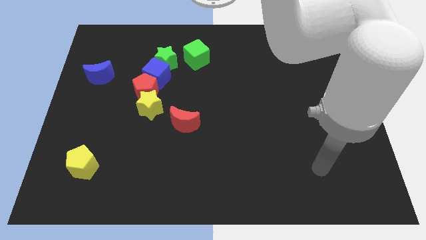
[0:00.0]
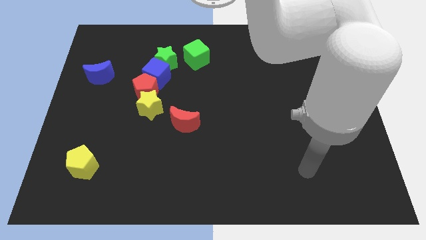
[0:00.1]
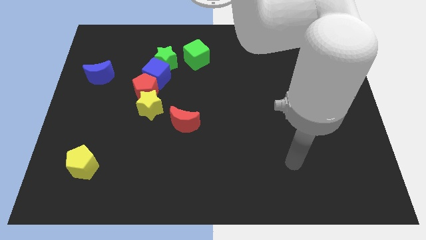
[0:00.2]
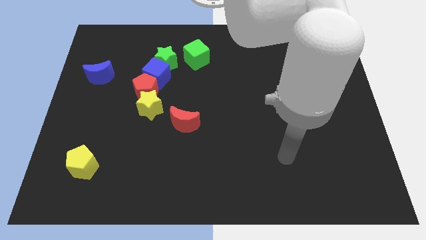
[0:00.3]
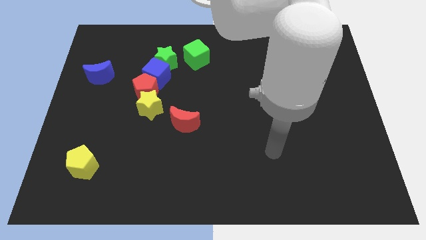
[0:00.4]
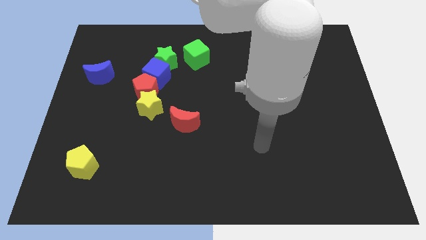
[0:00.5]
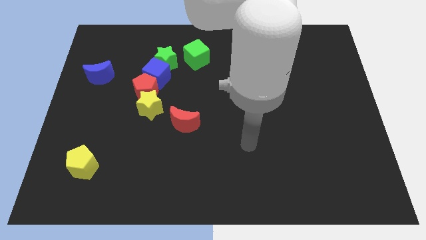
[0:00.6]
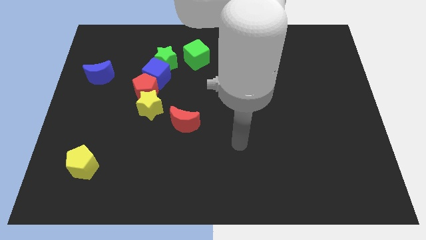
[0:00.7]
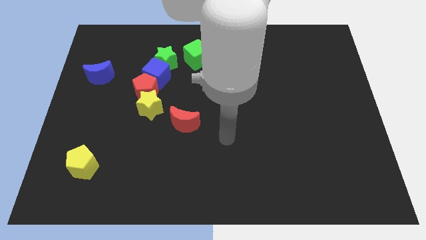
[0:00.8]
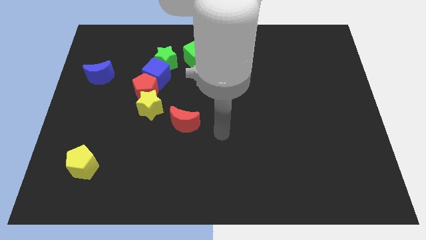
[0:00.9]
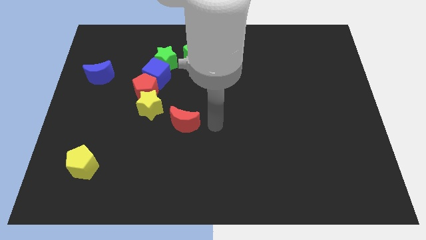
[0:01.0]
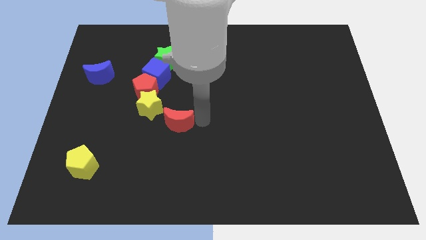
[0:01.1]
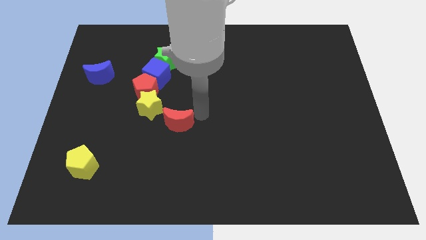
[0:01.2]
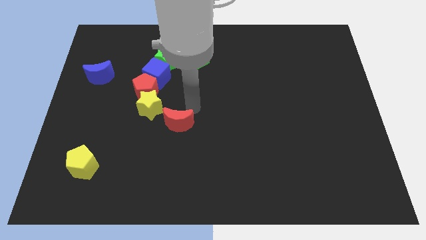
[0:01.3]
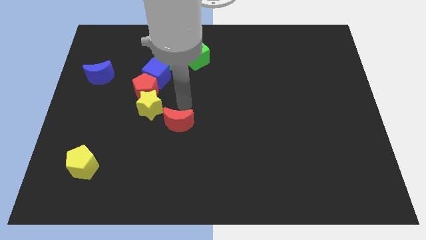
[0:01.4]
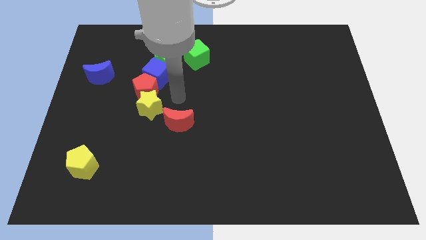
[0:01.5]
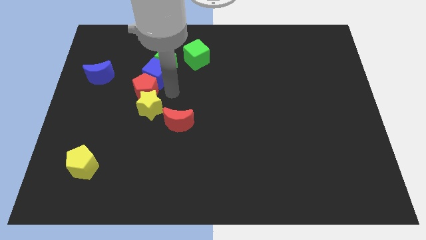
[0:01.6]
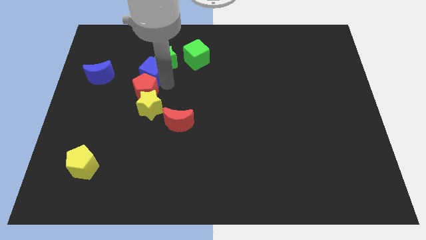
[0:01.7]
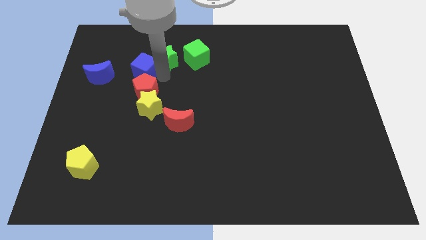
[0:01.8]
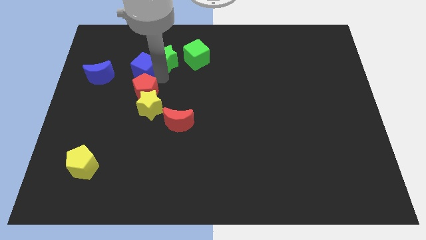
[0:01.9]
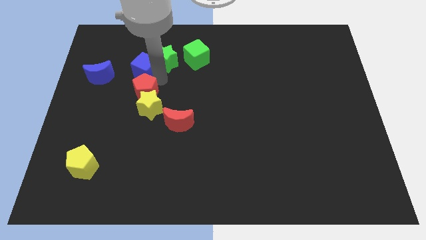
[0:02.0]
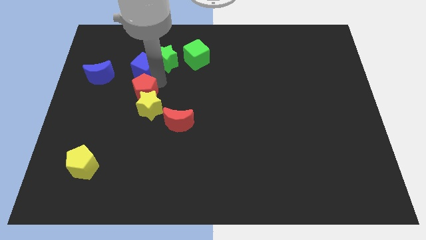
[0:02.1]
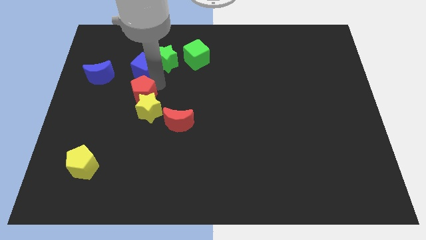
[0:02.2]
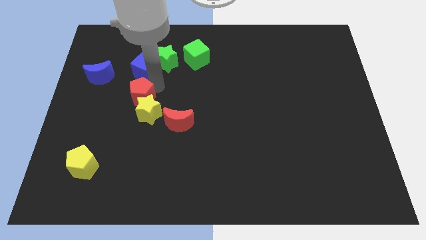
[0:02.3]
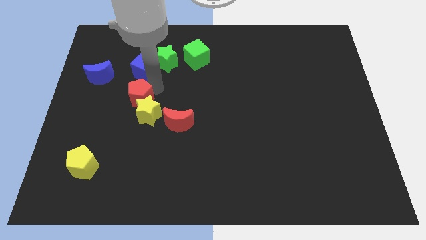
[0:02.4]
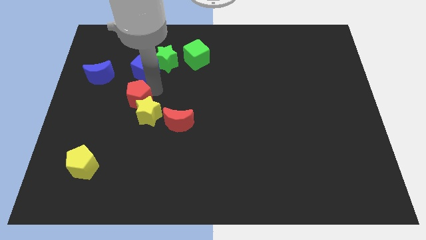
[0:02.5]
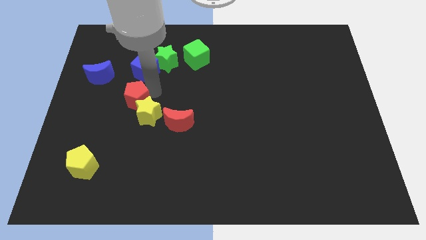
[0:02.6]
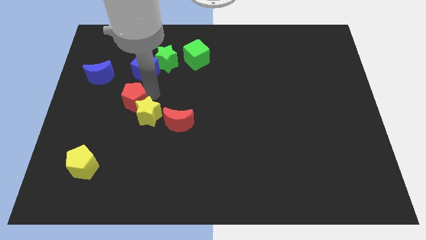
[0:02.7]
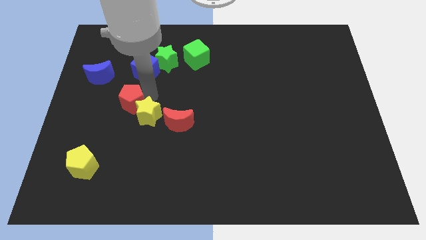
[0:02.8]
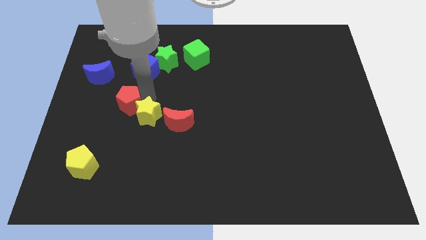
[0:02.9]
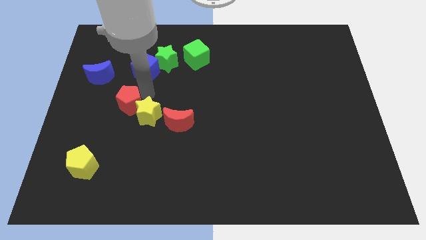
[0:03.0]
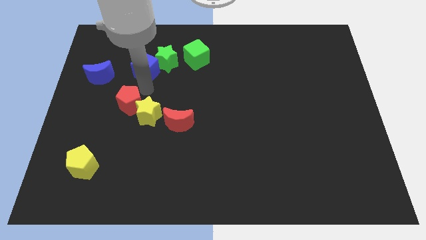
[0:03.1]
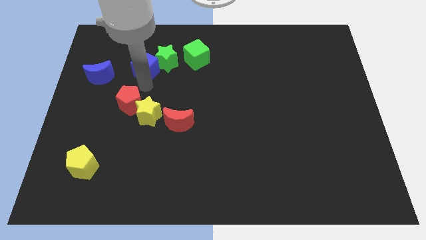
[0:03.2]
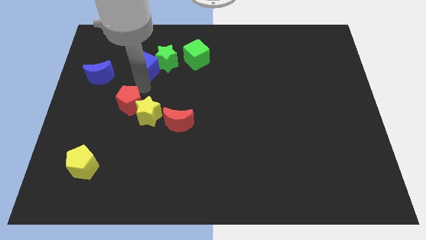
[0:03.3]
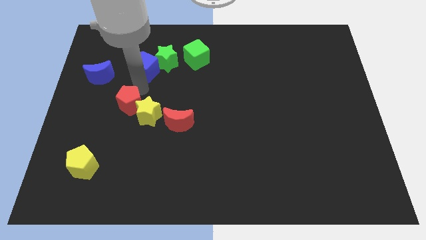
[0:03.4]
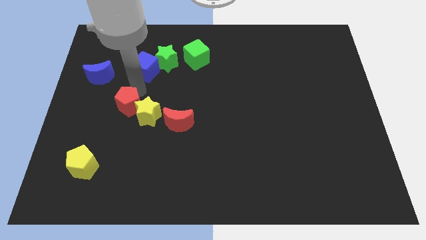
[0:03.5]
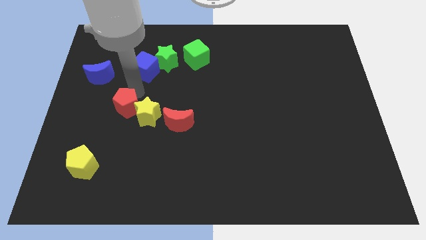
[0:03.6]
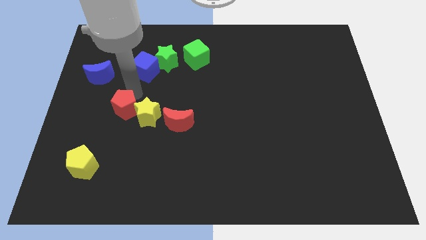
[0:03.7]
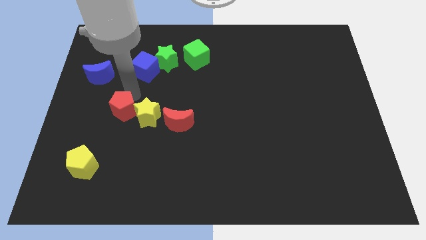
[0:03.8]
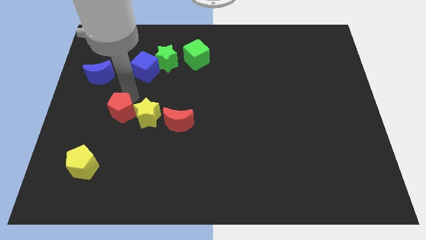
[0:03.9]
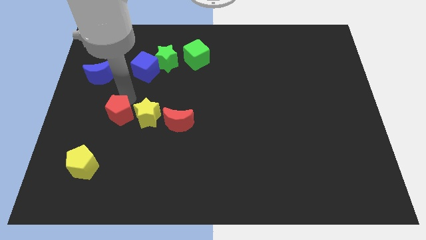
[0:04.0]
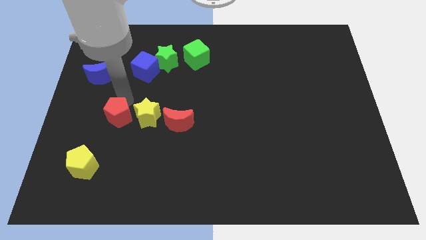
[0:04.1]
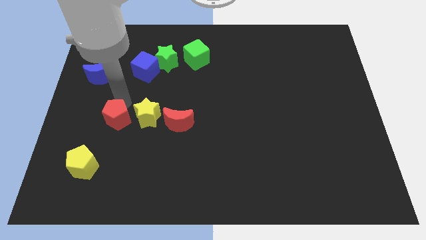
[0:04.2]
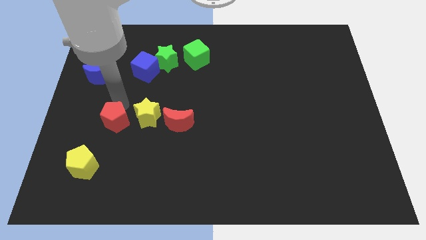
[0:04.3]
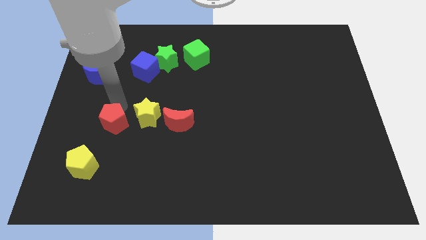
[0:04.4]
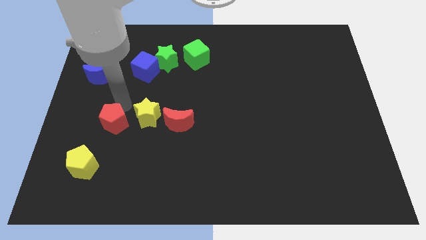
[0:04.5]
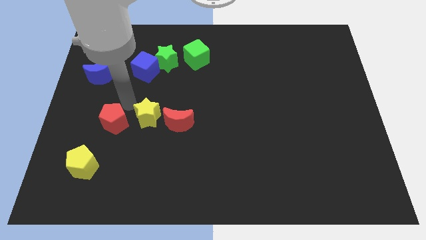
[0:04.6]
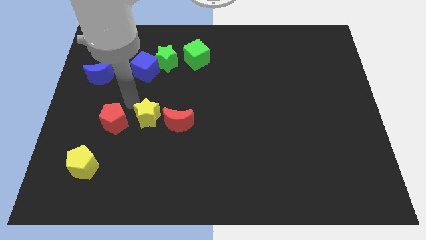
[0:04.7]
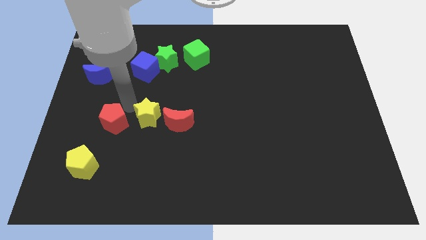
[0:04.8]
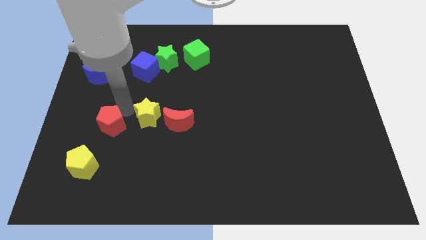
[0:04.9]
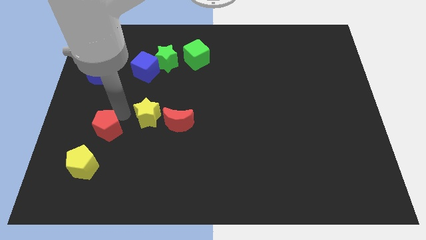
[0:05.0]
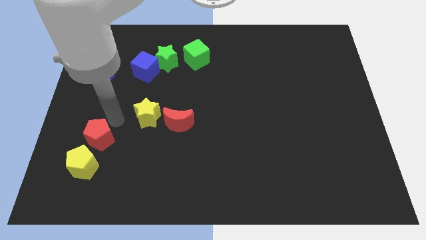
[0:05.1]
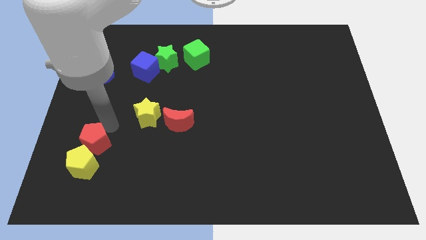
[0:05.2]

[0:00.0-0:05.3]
slide the red pentagon towards the yellow pentagon

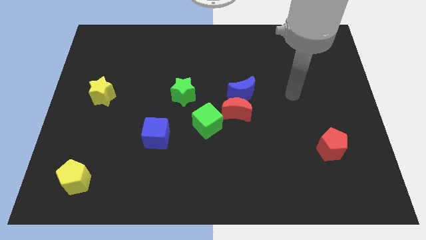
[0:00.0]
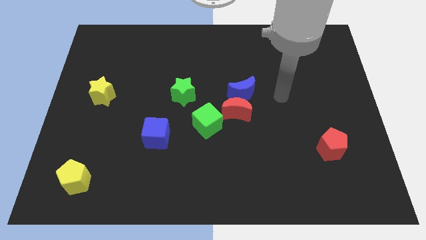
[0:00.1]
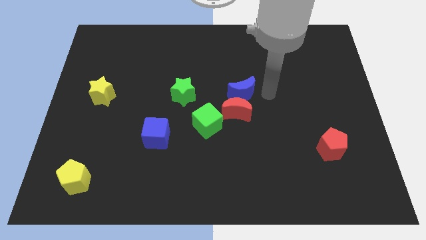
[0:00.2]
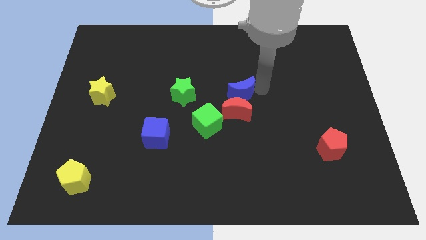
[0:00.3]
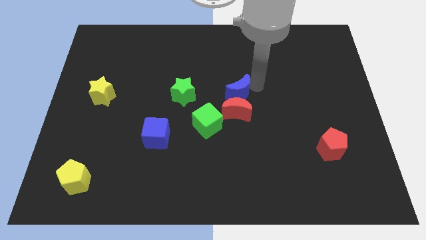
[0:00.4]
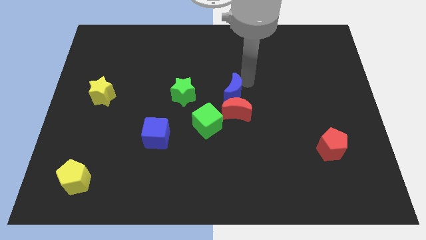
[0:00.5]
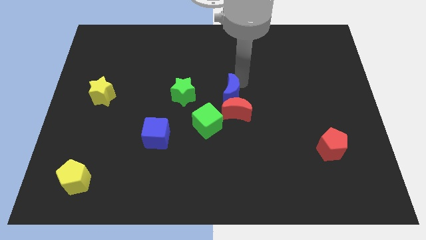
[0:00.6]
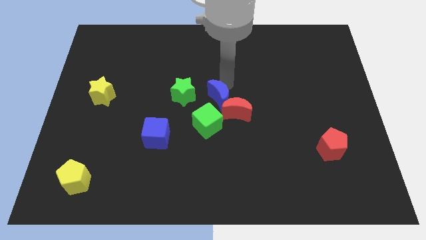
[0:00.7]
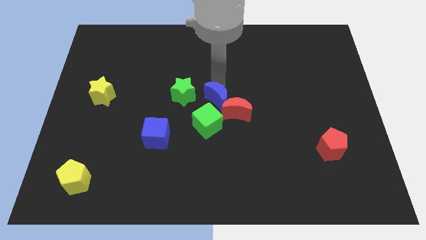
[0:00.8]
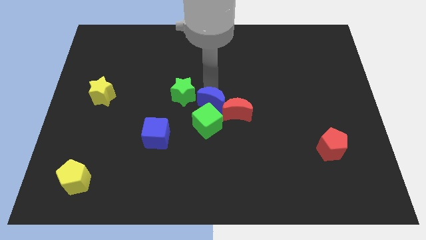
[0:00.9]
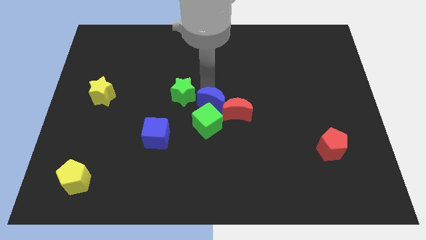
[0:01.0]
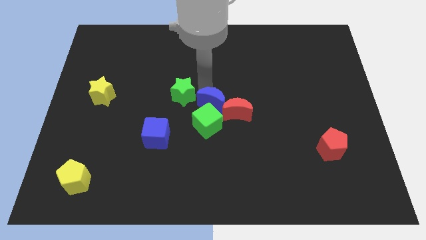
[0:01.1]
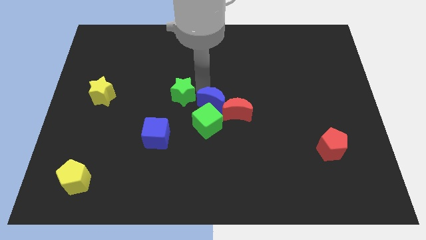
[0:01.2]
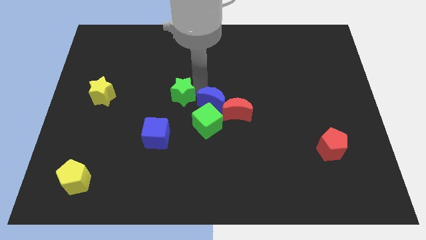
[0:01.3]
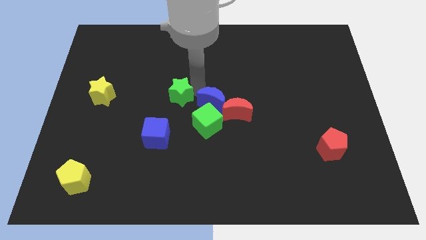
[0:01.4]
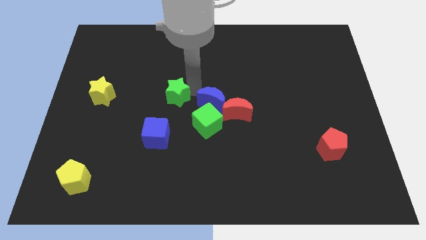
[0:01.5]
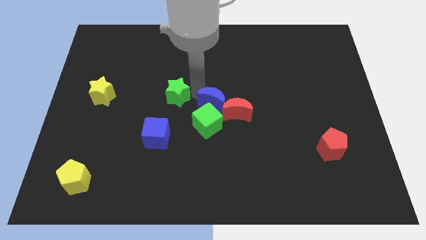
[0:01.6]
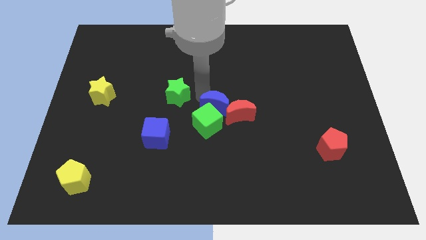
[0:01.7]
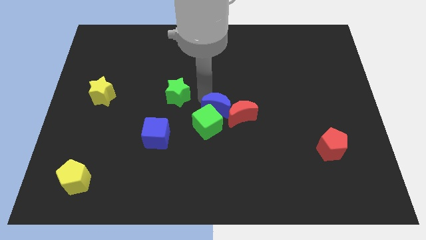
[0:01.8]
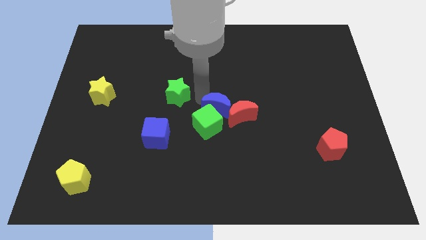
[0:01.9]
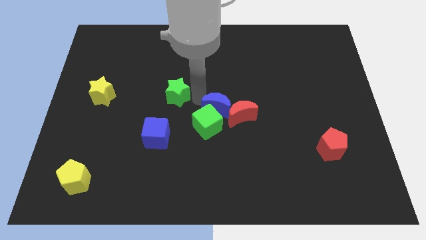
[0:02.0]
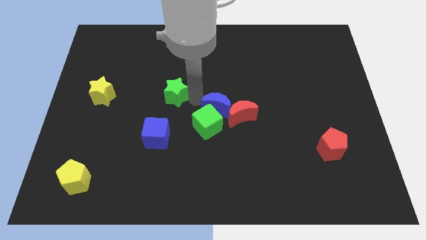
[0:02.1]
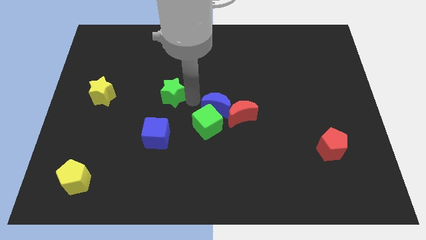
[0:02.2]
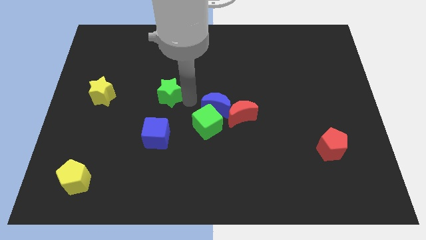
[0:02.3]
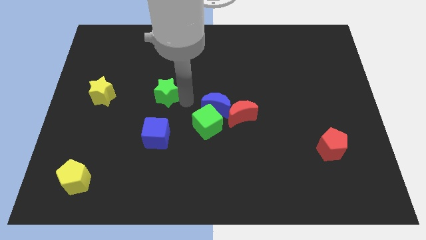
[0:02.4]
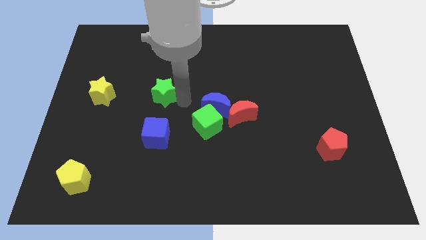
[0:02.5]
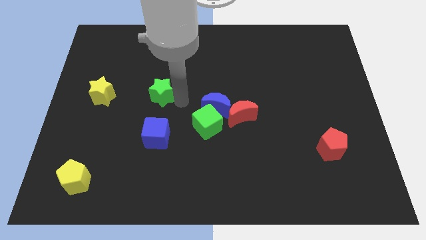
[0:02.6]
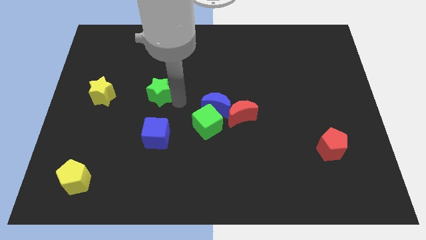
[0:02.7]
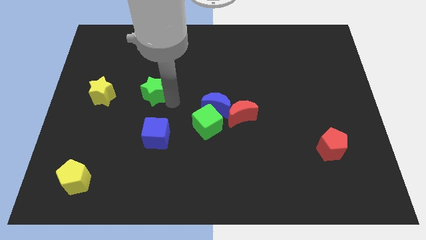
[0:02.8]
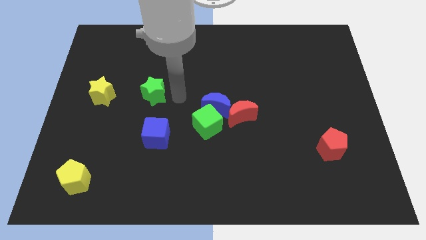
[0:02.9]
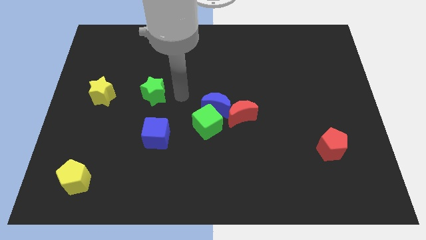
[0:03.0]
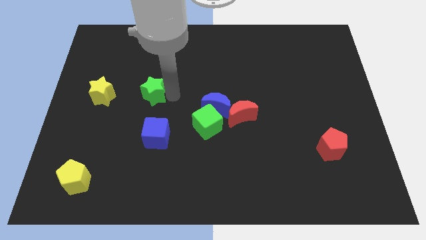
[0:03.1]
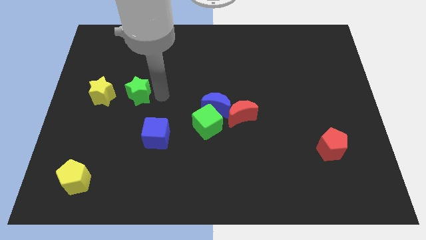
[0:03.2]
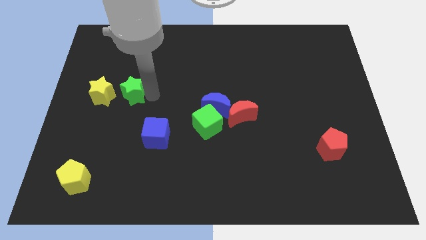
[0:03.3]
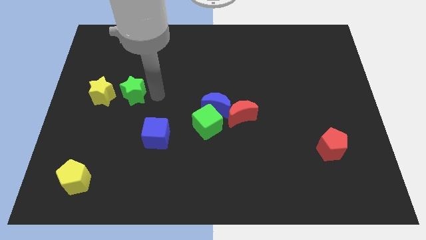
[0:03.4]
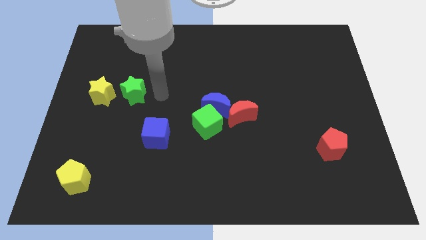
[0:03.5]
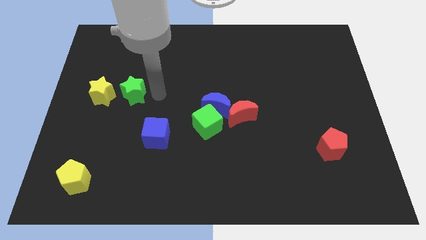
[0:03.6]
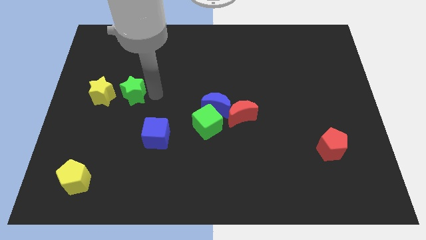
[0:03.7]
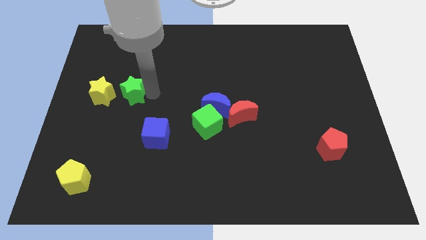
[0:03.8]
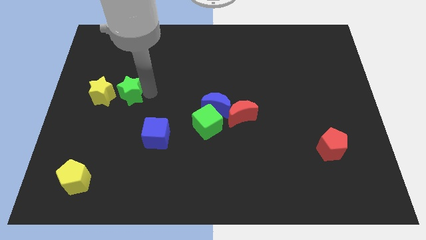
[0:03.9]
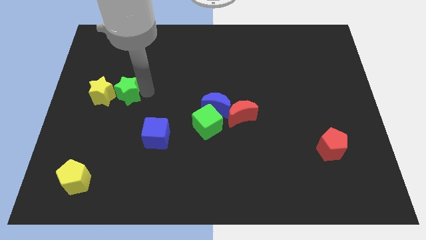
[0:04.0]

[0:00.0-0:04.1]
push the green star towards the yellow star
